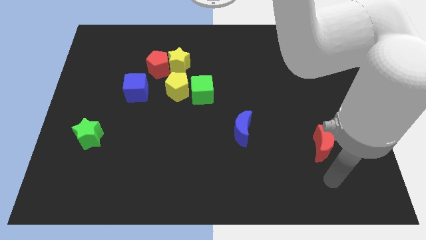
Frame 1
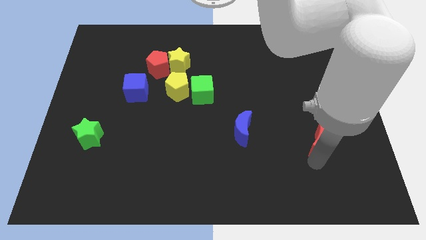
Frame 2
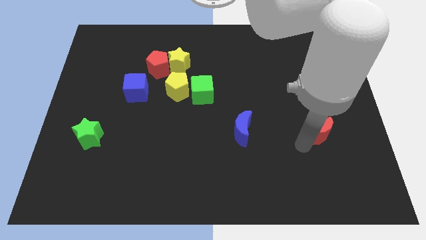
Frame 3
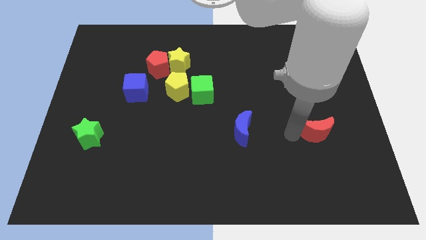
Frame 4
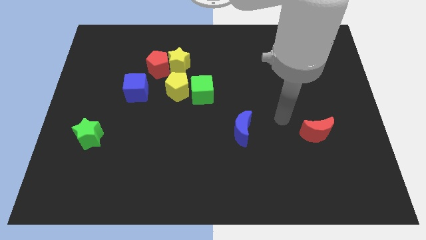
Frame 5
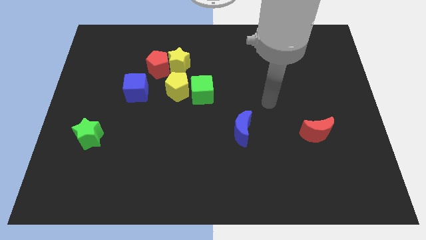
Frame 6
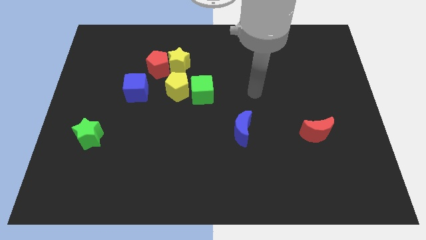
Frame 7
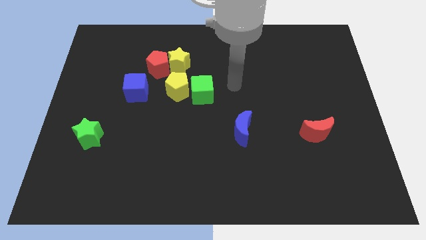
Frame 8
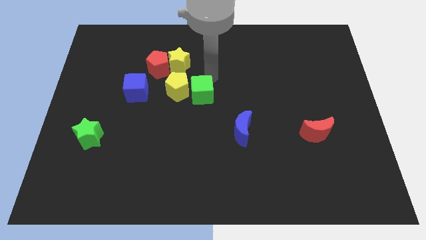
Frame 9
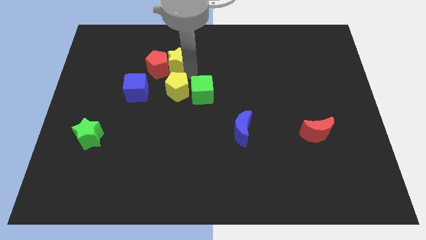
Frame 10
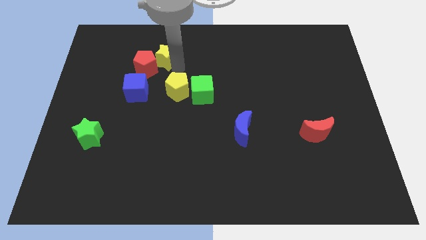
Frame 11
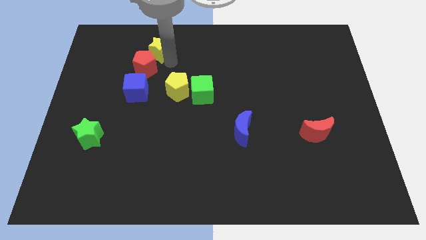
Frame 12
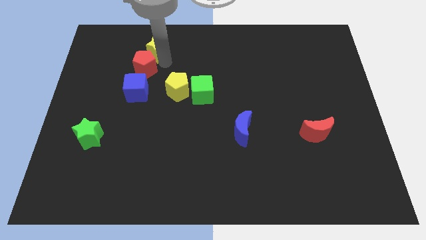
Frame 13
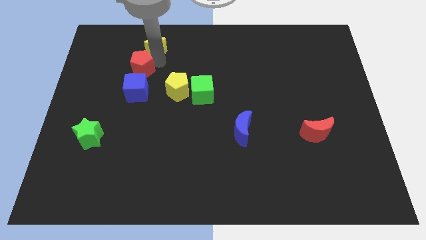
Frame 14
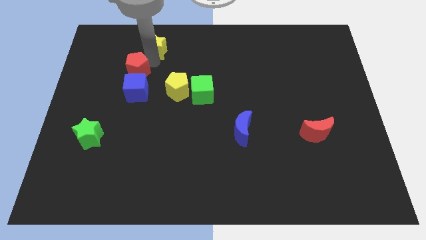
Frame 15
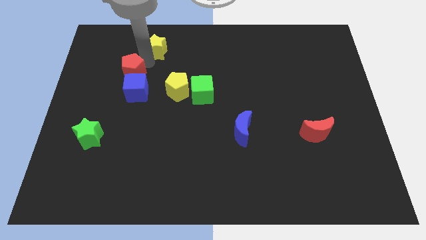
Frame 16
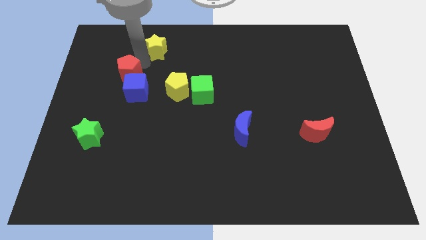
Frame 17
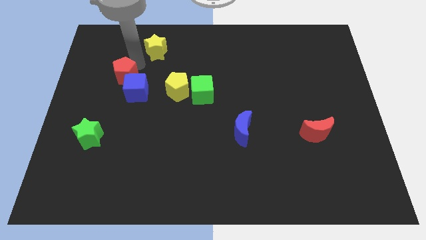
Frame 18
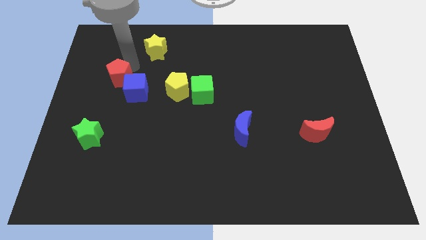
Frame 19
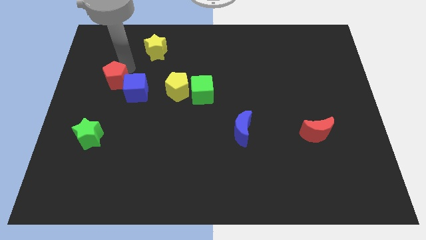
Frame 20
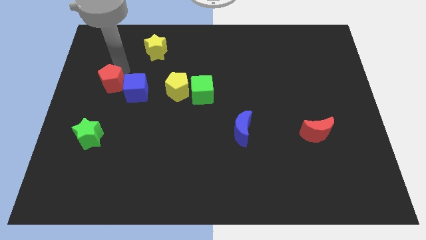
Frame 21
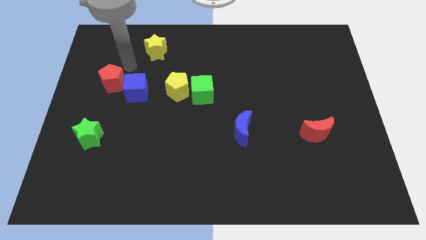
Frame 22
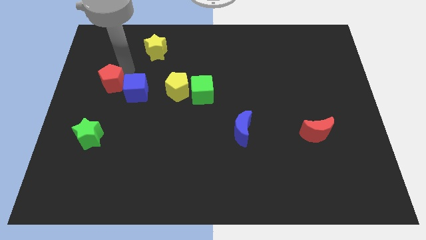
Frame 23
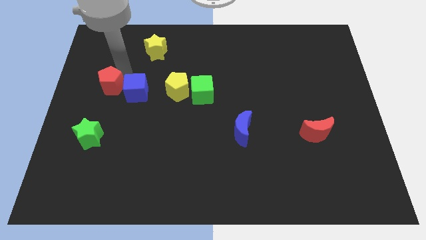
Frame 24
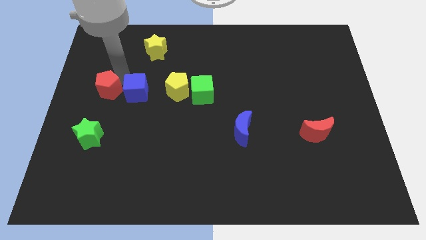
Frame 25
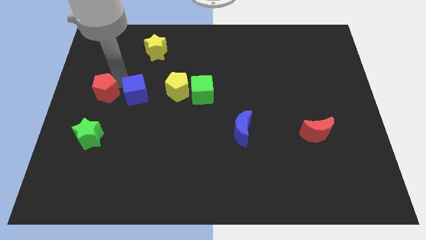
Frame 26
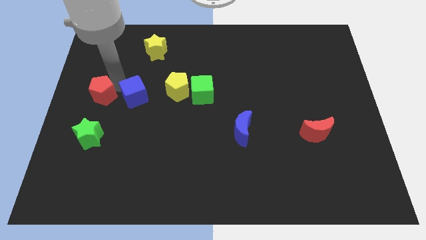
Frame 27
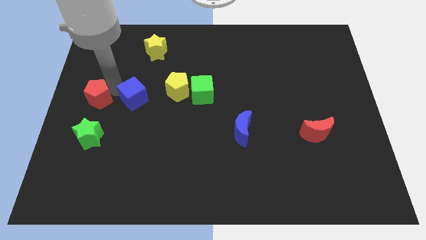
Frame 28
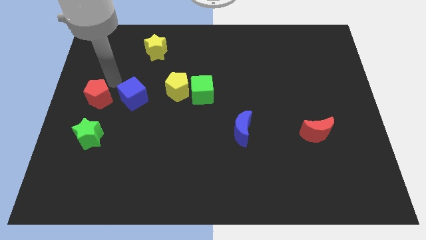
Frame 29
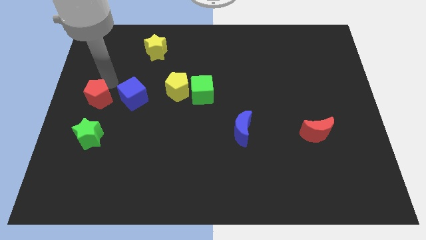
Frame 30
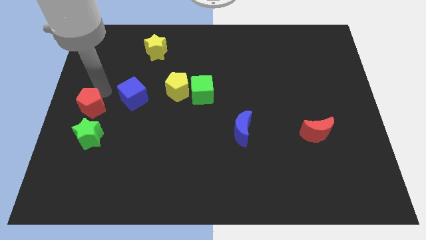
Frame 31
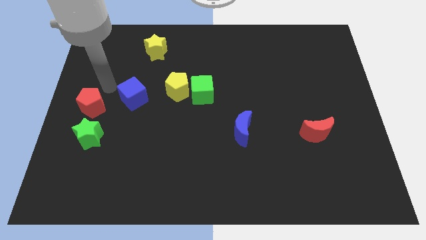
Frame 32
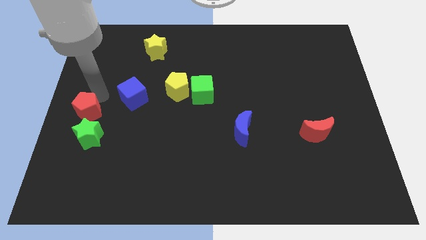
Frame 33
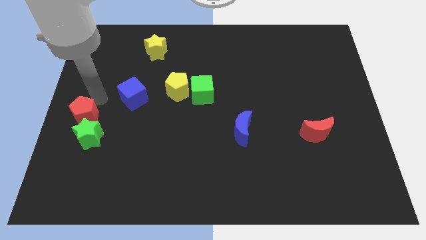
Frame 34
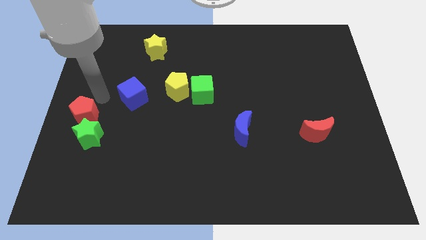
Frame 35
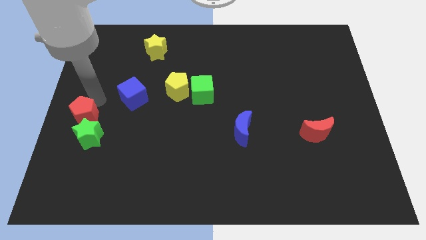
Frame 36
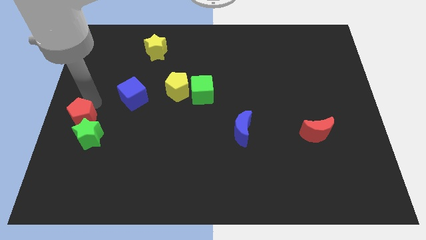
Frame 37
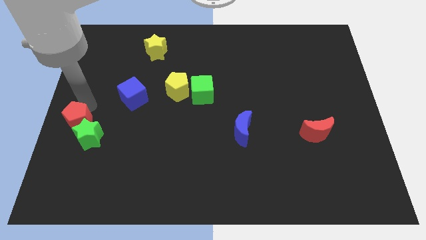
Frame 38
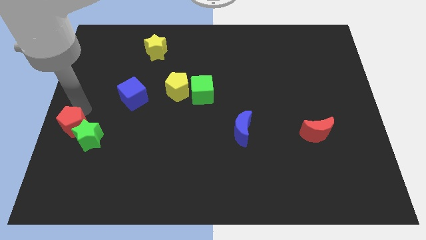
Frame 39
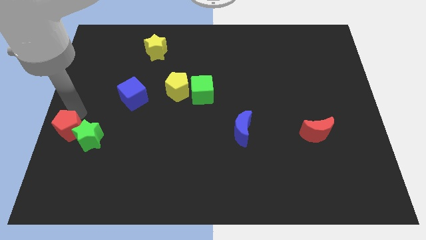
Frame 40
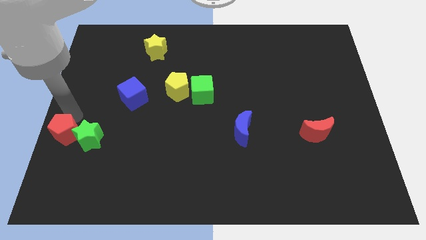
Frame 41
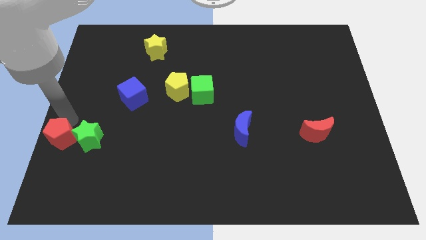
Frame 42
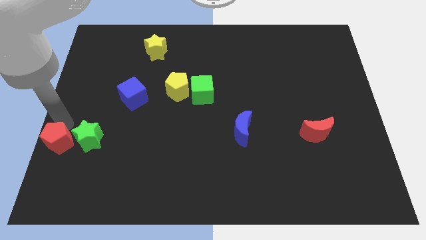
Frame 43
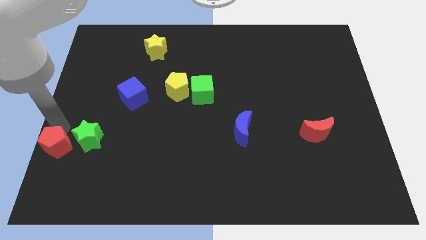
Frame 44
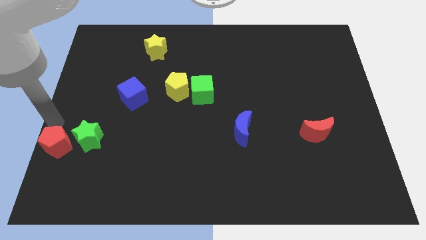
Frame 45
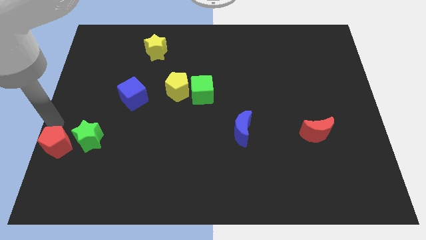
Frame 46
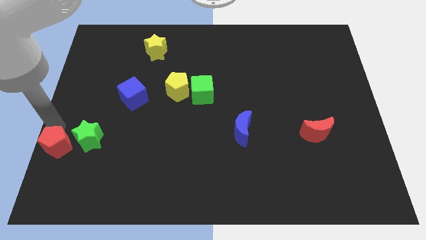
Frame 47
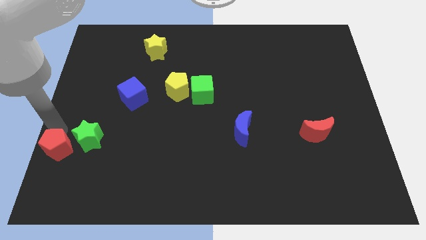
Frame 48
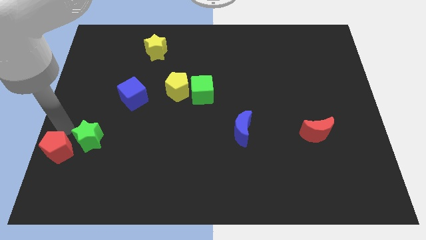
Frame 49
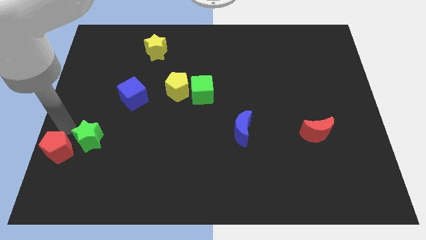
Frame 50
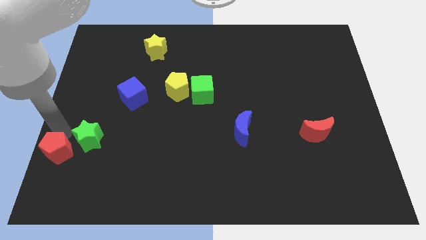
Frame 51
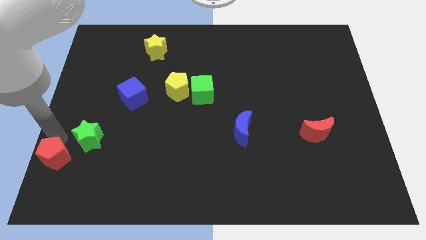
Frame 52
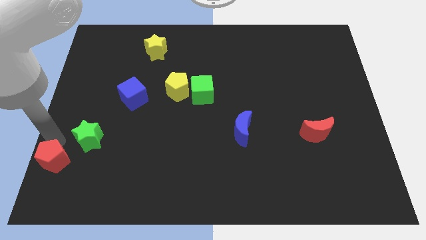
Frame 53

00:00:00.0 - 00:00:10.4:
put the red pentagon to the bottom left

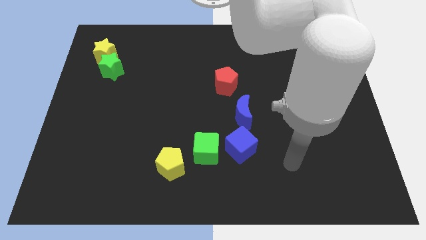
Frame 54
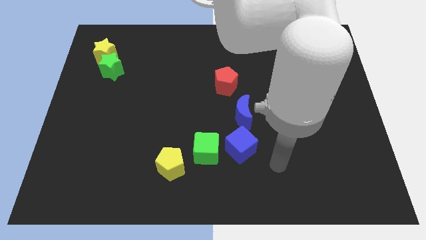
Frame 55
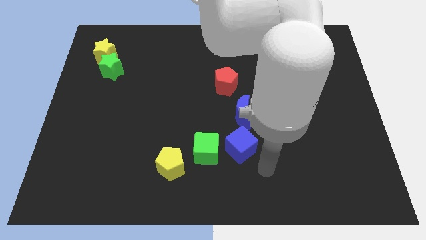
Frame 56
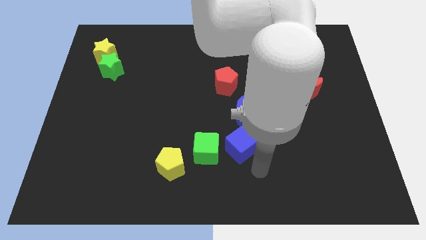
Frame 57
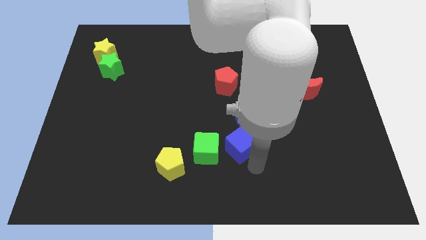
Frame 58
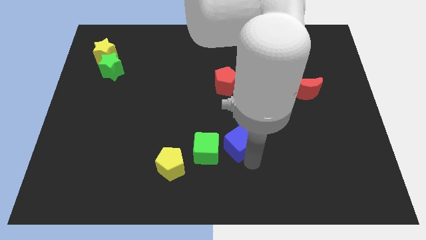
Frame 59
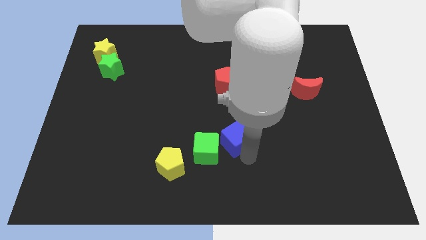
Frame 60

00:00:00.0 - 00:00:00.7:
put the blue cube to the middle

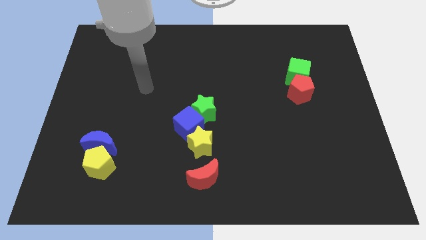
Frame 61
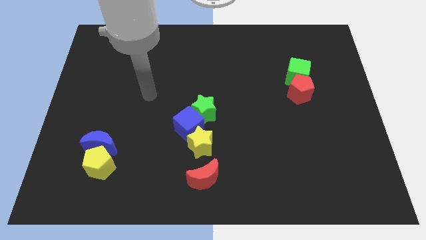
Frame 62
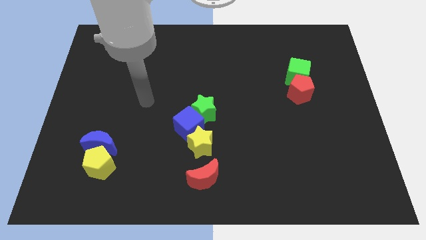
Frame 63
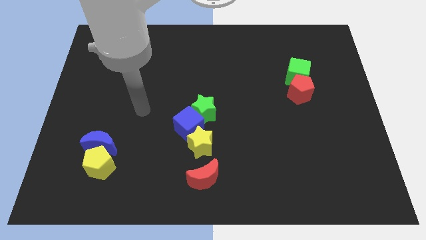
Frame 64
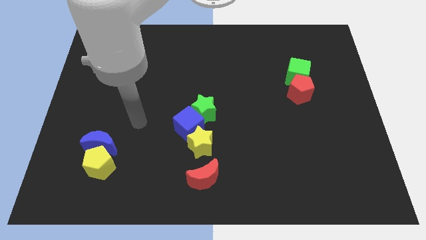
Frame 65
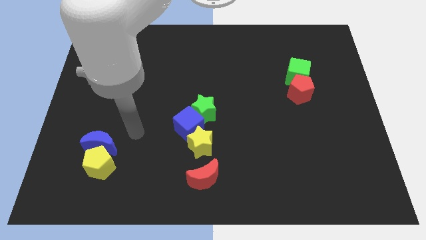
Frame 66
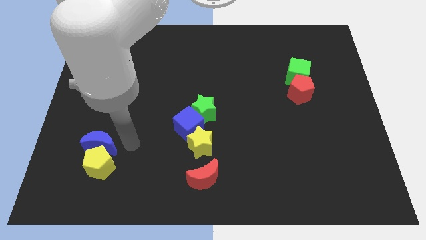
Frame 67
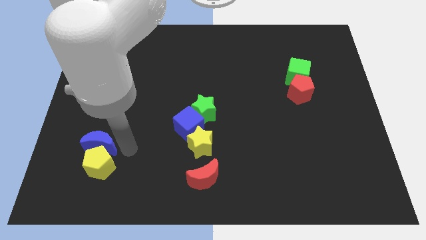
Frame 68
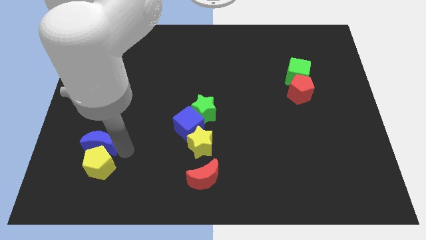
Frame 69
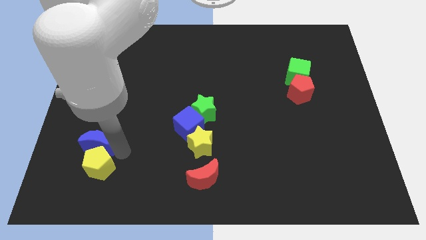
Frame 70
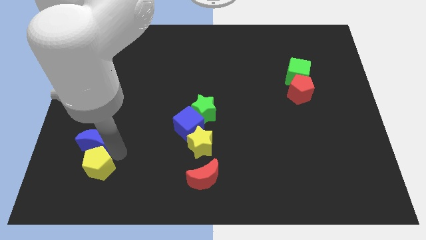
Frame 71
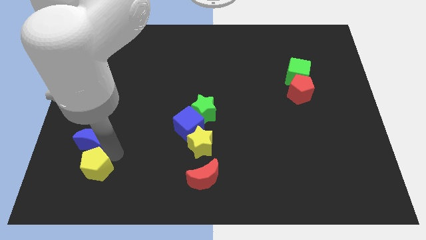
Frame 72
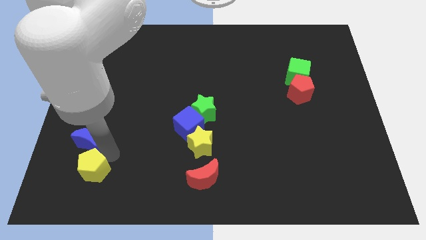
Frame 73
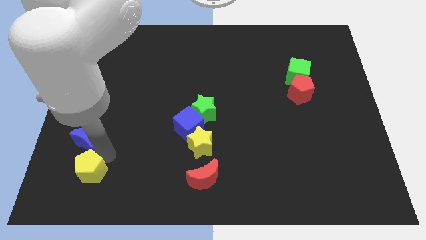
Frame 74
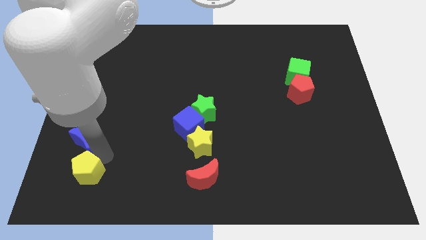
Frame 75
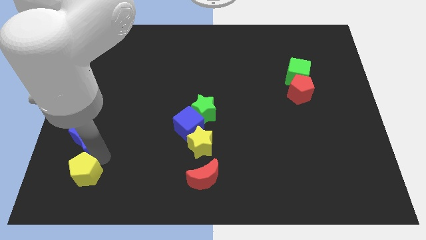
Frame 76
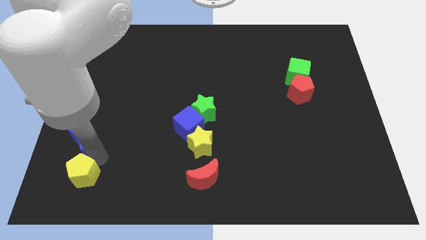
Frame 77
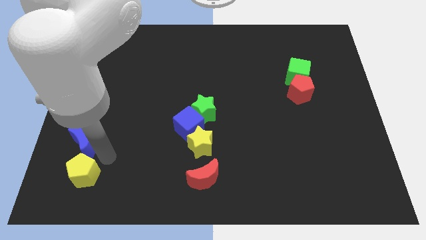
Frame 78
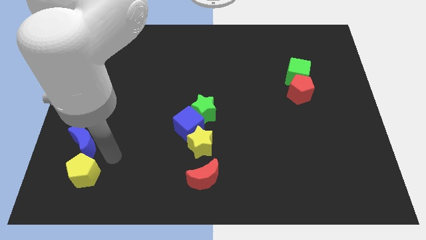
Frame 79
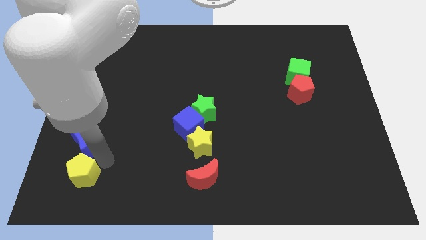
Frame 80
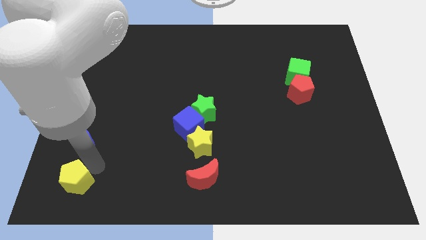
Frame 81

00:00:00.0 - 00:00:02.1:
push the yellow pentagon to the bottom left
